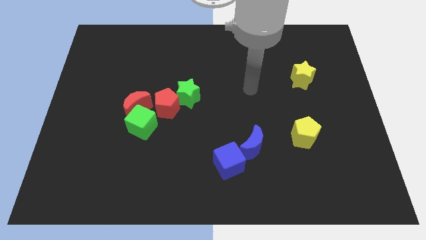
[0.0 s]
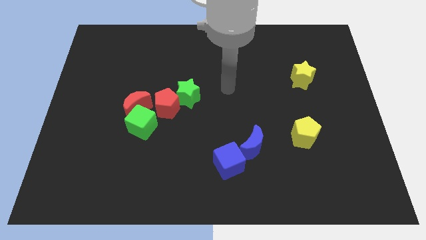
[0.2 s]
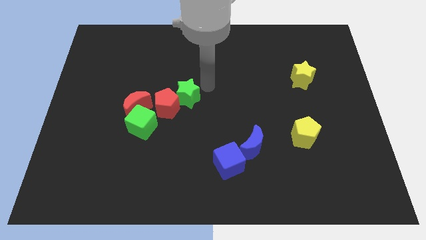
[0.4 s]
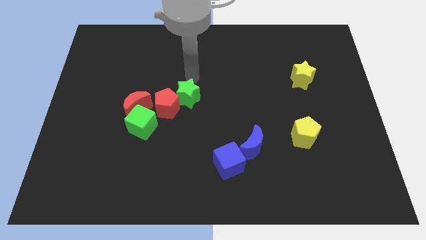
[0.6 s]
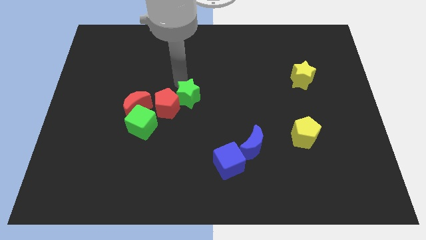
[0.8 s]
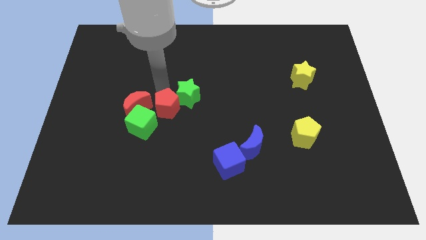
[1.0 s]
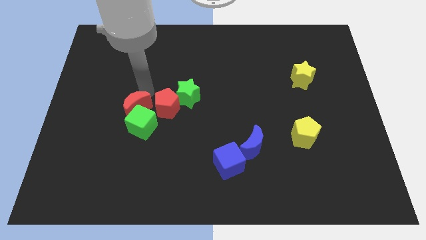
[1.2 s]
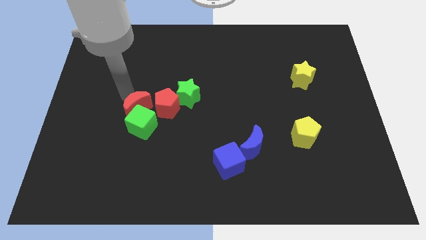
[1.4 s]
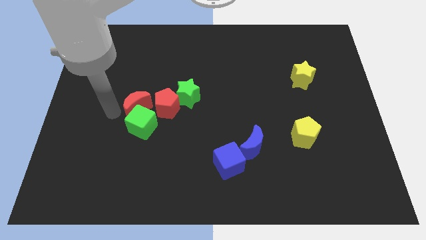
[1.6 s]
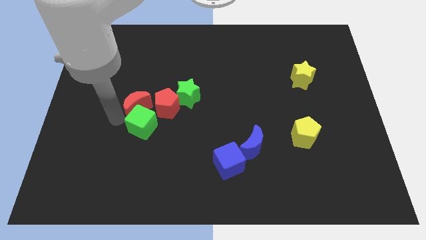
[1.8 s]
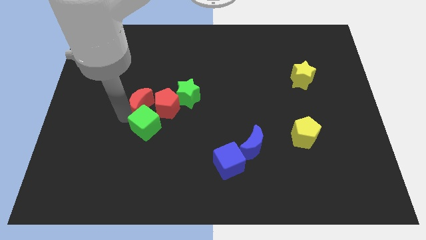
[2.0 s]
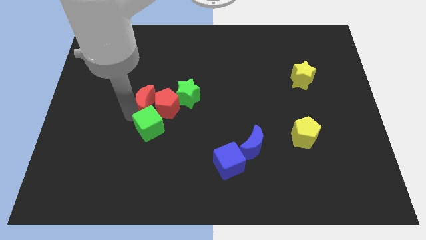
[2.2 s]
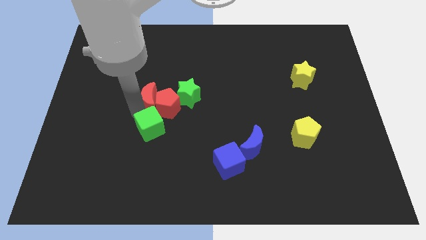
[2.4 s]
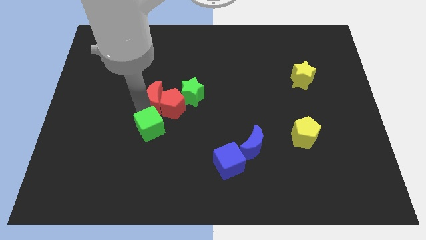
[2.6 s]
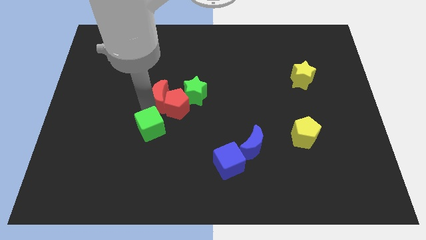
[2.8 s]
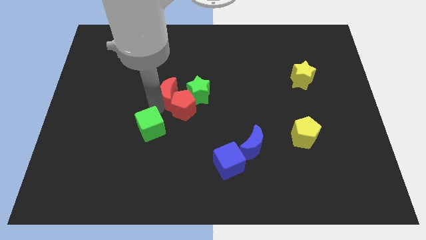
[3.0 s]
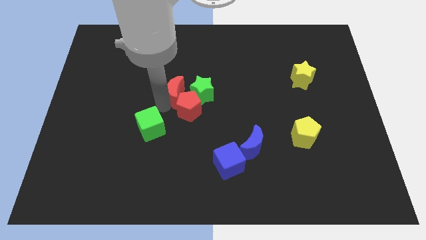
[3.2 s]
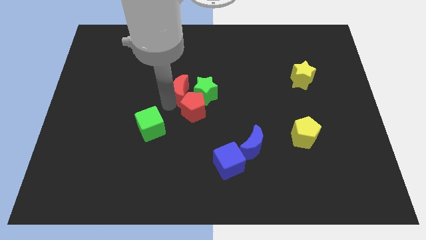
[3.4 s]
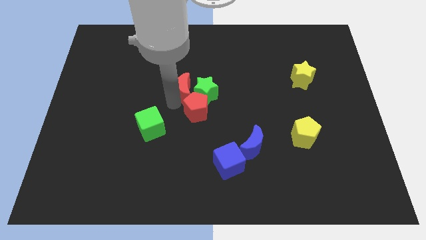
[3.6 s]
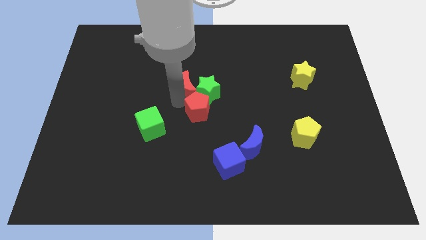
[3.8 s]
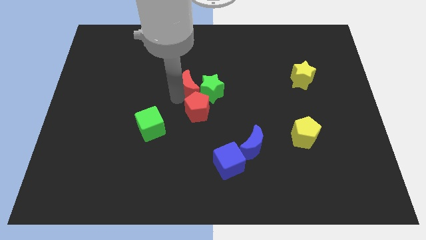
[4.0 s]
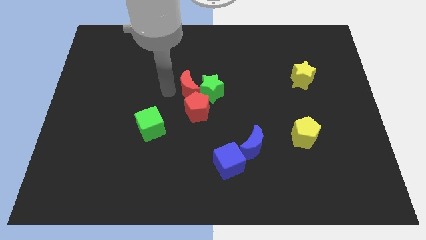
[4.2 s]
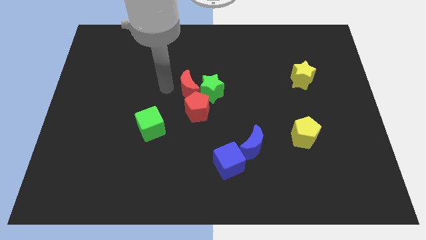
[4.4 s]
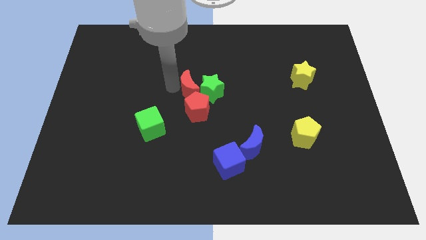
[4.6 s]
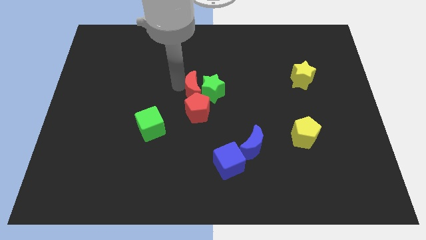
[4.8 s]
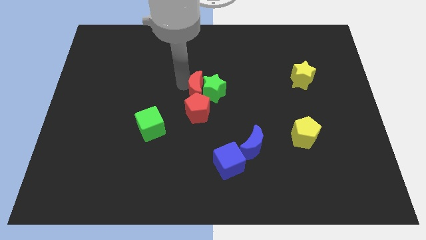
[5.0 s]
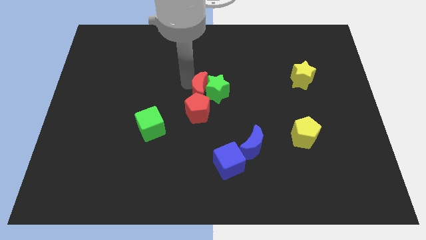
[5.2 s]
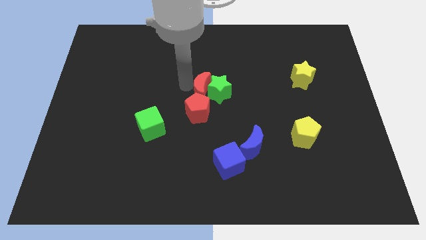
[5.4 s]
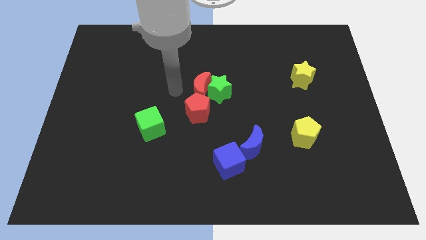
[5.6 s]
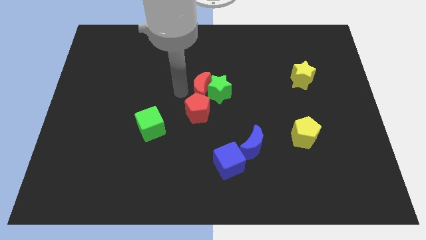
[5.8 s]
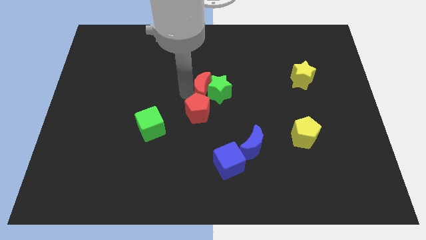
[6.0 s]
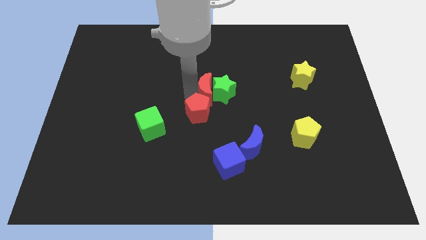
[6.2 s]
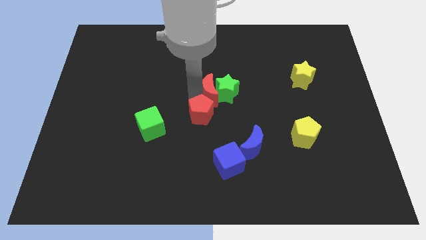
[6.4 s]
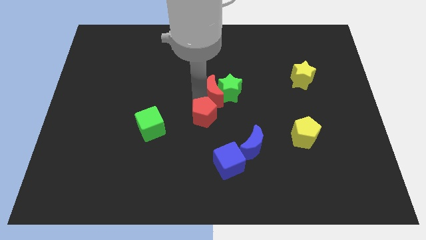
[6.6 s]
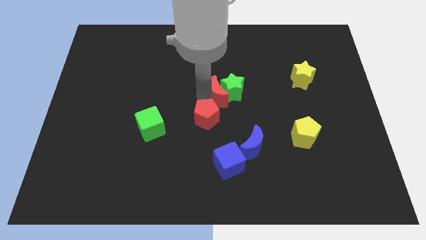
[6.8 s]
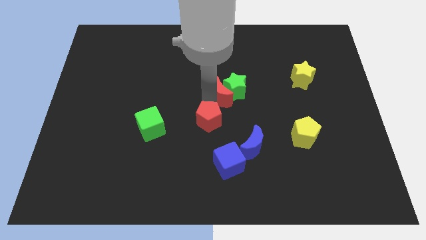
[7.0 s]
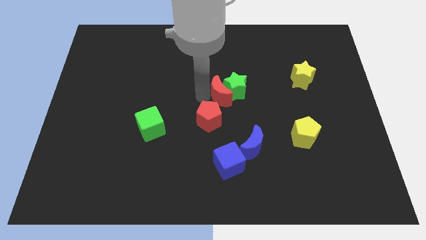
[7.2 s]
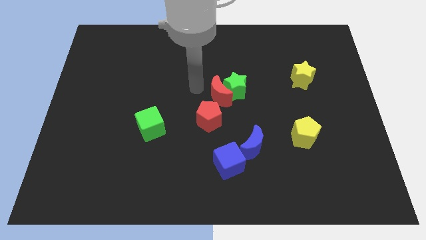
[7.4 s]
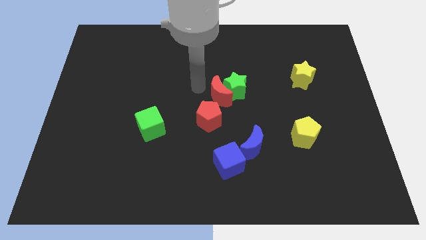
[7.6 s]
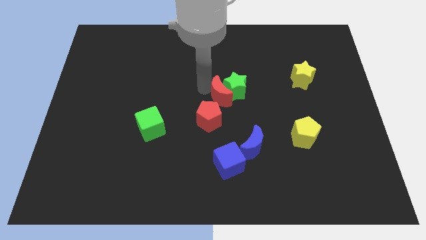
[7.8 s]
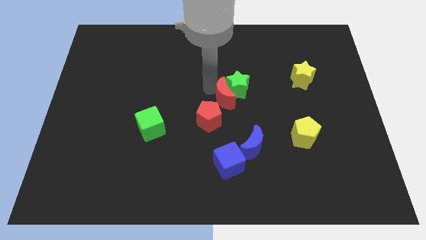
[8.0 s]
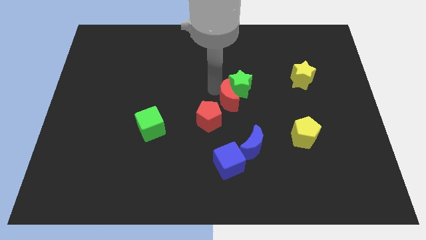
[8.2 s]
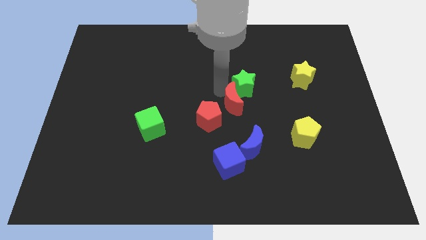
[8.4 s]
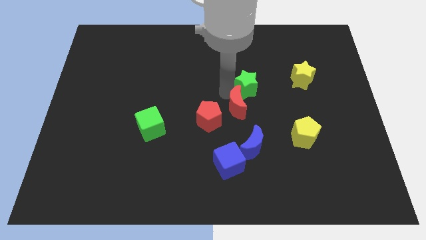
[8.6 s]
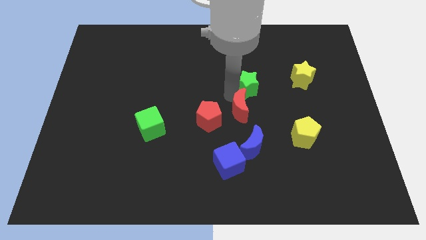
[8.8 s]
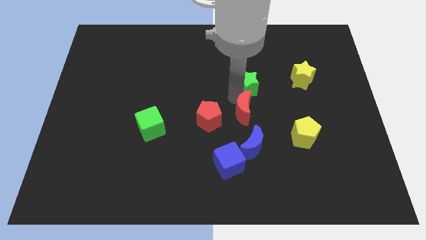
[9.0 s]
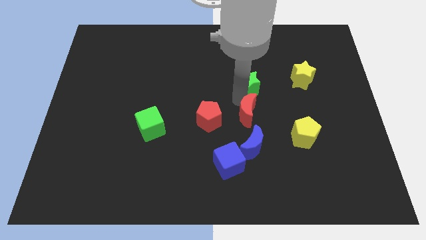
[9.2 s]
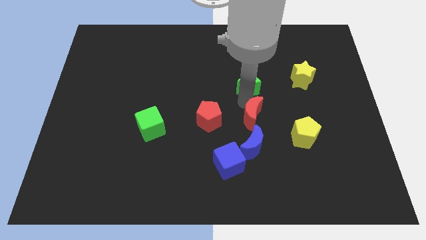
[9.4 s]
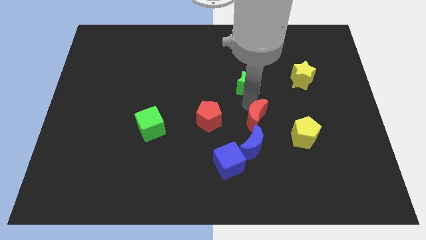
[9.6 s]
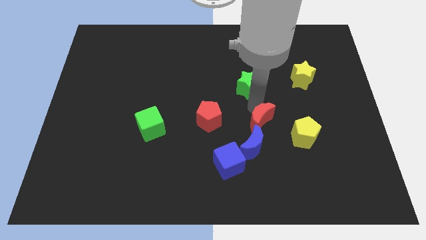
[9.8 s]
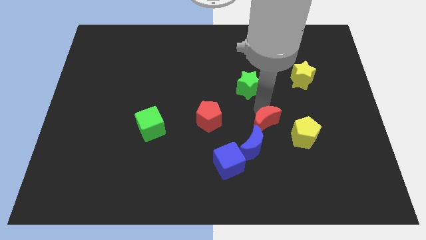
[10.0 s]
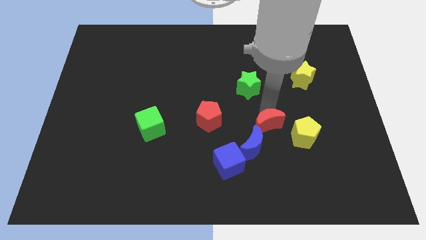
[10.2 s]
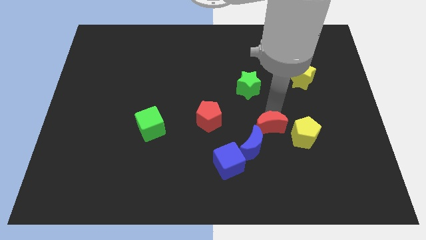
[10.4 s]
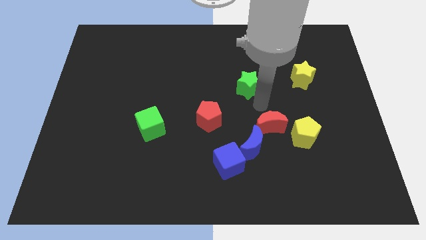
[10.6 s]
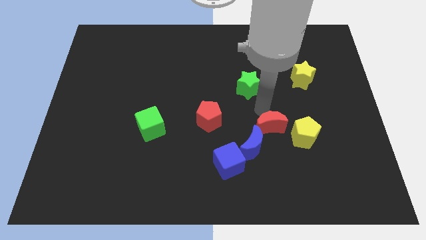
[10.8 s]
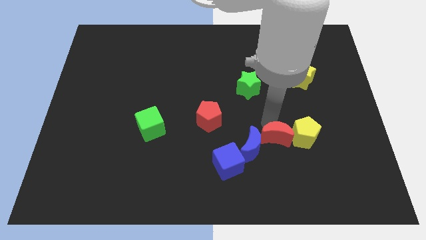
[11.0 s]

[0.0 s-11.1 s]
slide the red moon to the bottom left side of the yellow pentagon

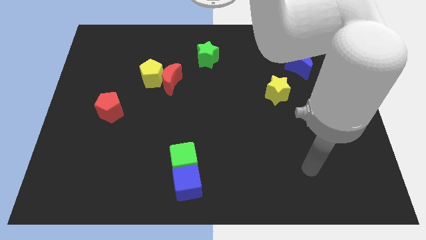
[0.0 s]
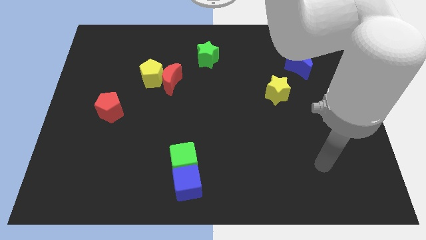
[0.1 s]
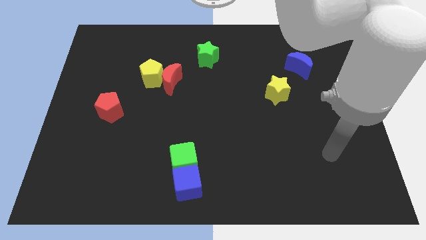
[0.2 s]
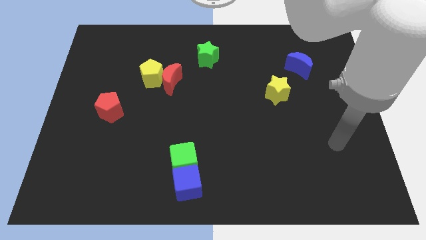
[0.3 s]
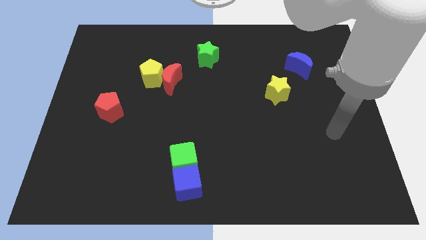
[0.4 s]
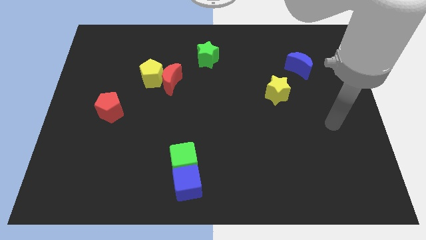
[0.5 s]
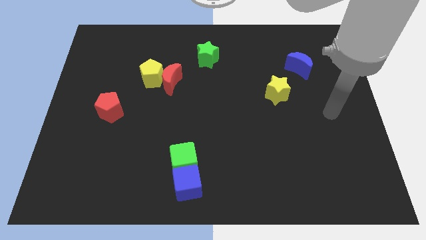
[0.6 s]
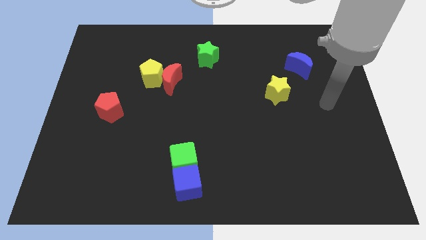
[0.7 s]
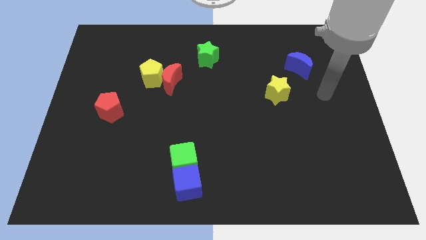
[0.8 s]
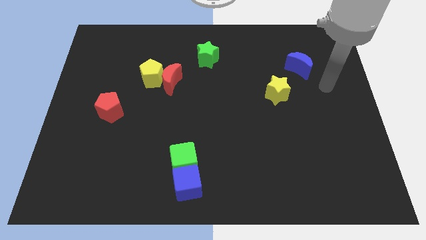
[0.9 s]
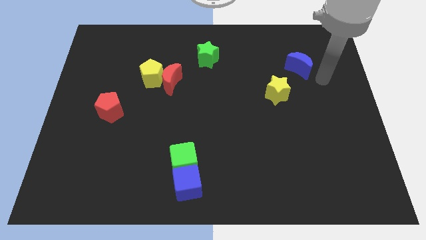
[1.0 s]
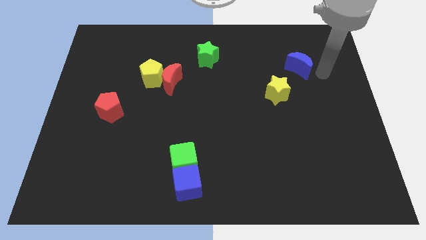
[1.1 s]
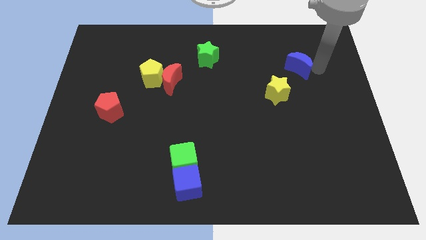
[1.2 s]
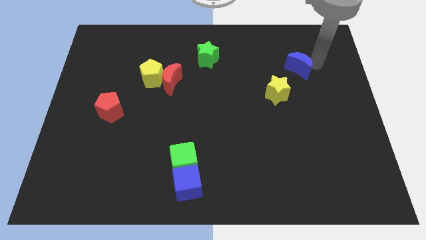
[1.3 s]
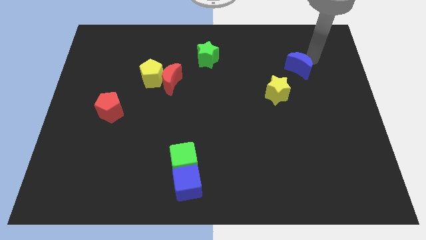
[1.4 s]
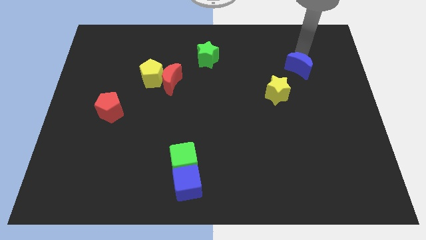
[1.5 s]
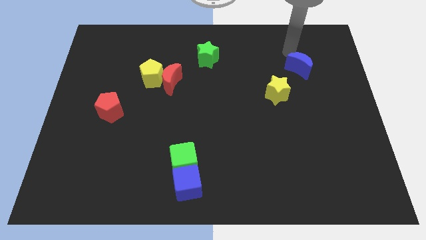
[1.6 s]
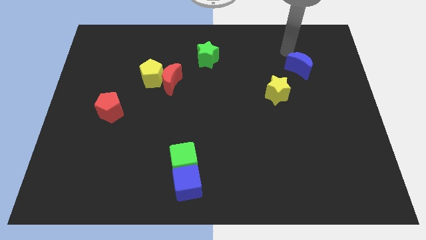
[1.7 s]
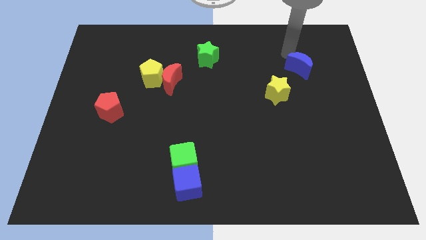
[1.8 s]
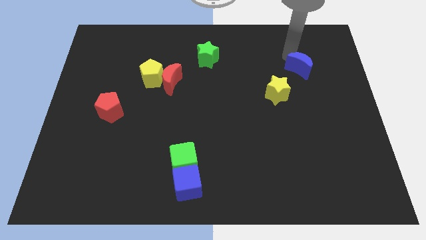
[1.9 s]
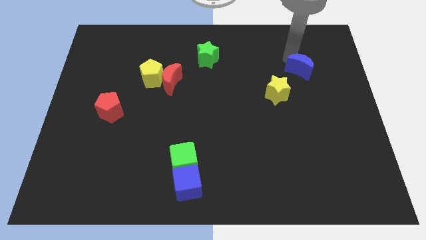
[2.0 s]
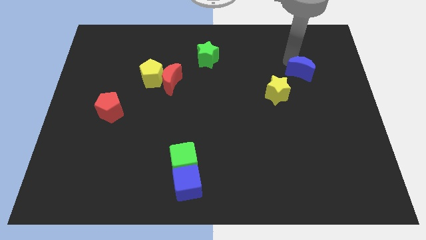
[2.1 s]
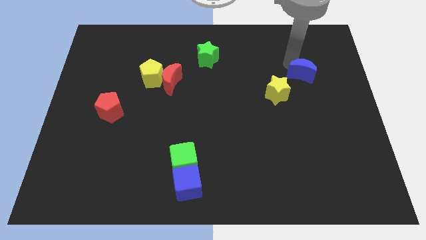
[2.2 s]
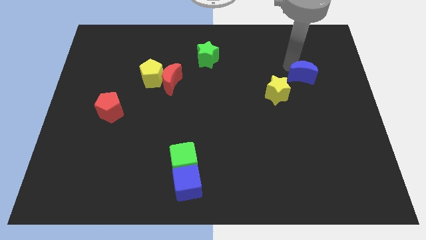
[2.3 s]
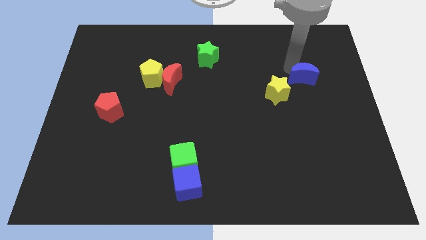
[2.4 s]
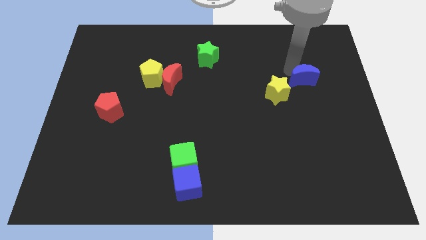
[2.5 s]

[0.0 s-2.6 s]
push the blue moon just right of the yellow star
